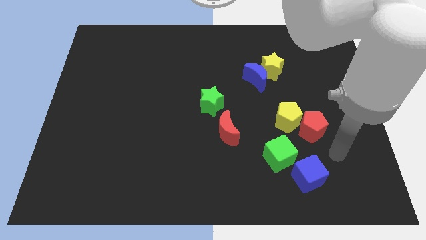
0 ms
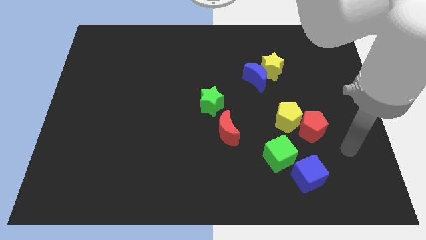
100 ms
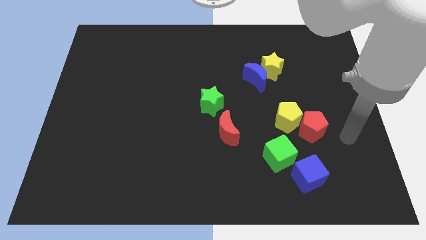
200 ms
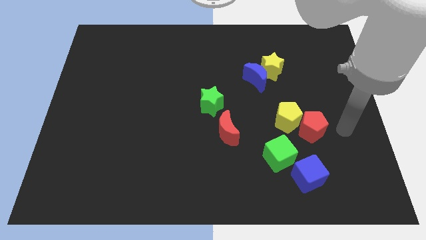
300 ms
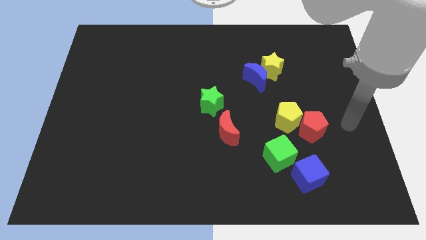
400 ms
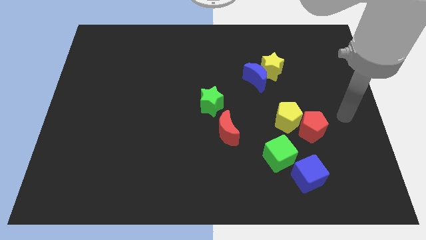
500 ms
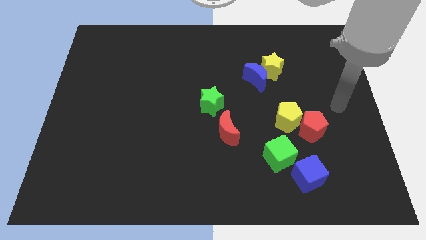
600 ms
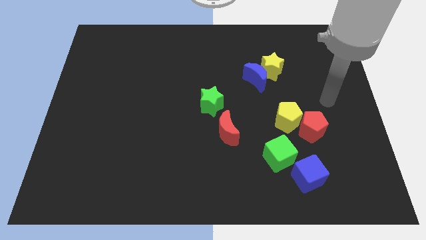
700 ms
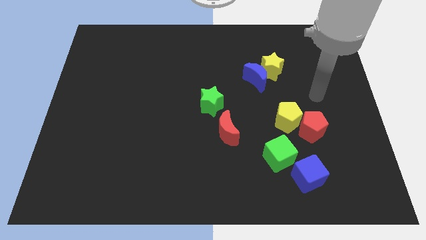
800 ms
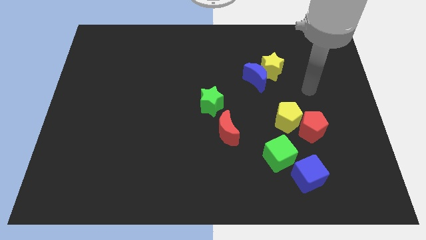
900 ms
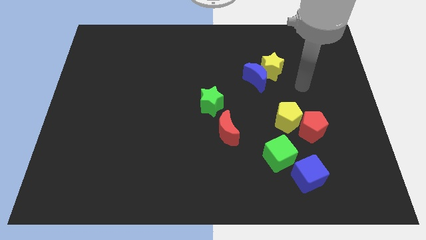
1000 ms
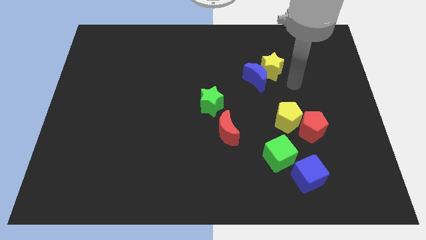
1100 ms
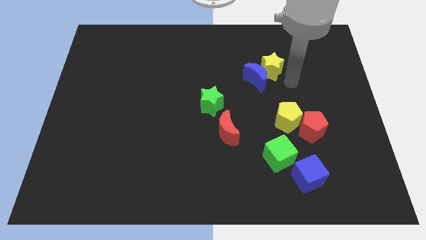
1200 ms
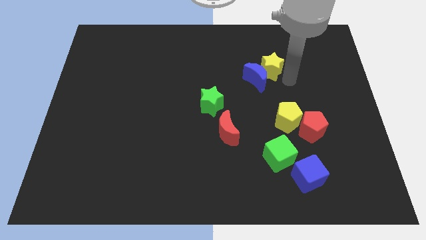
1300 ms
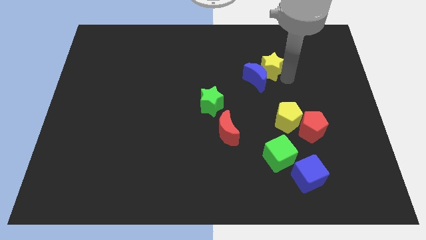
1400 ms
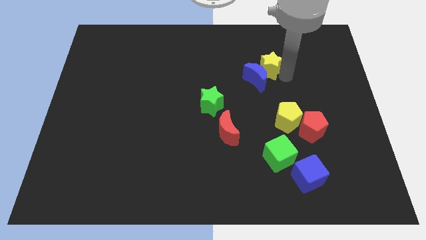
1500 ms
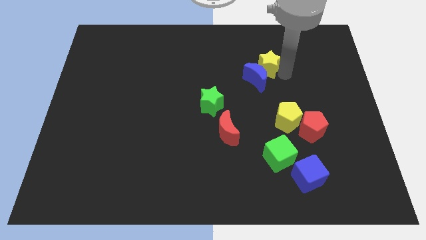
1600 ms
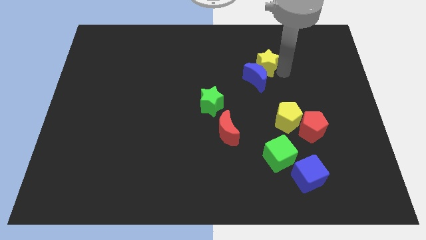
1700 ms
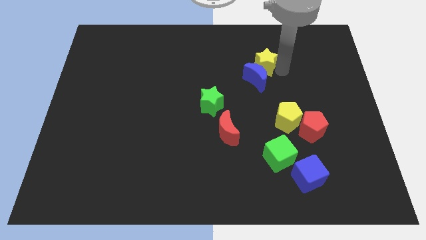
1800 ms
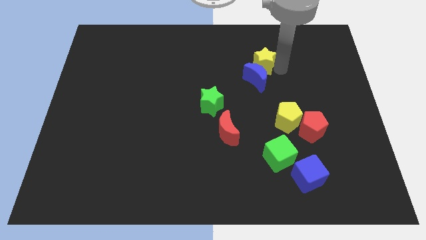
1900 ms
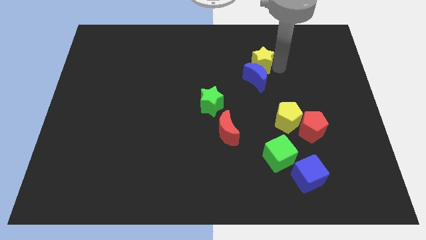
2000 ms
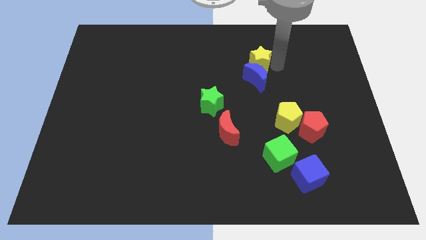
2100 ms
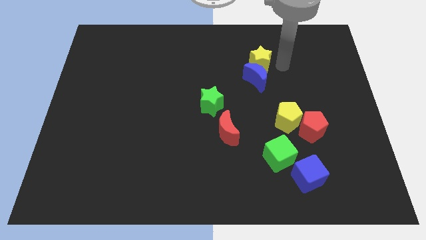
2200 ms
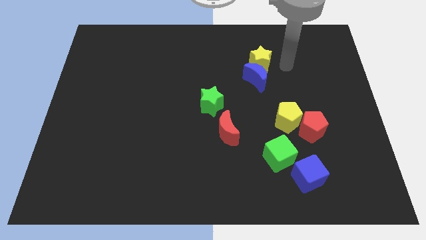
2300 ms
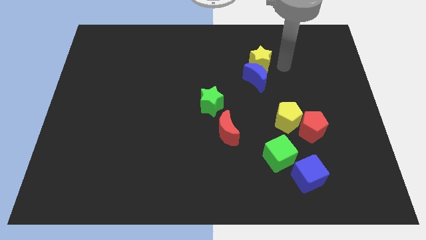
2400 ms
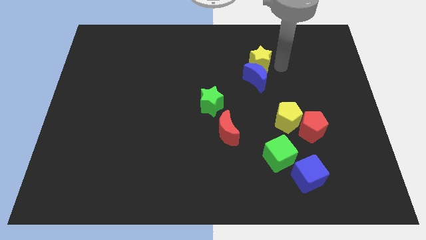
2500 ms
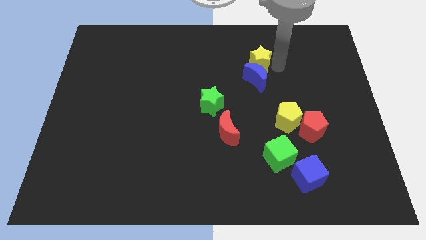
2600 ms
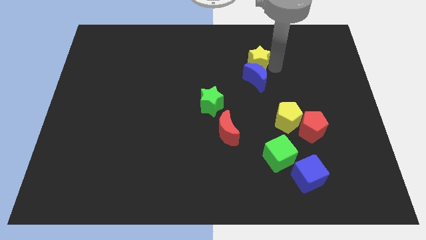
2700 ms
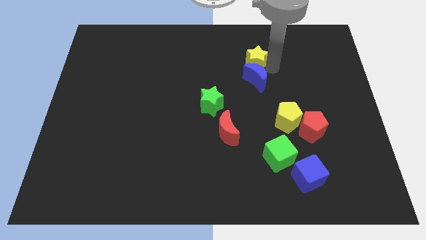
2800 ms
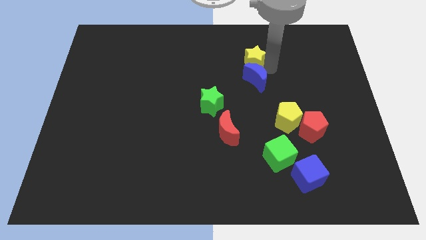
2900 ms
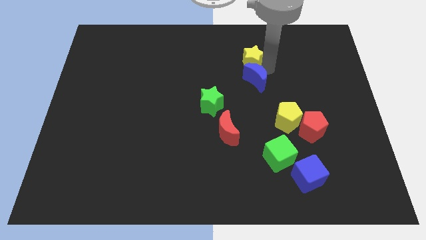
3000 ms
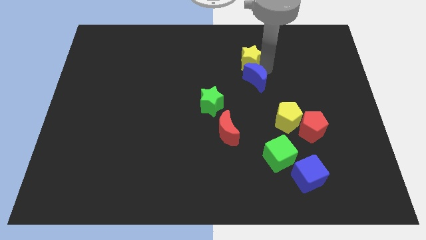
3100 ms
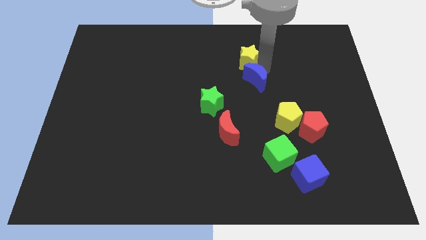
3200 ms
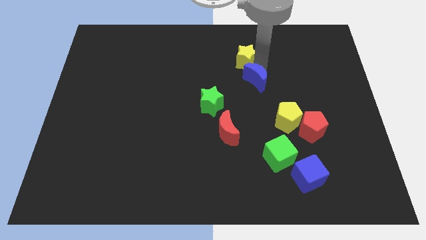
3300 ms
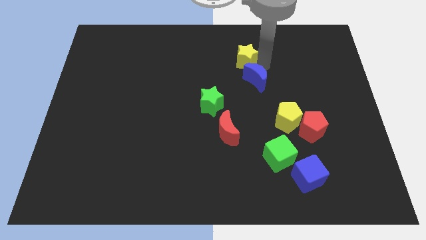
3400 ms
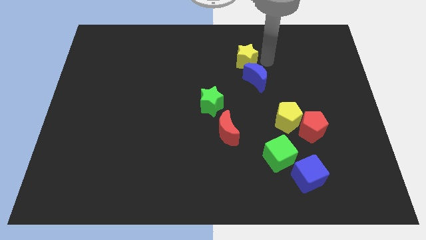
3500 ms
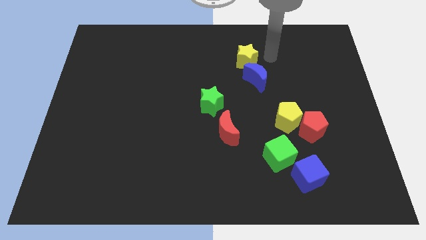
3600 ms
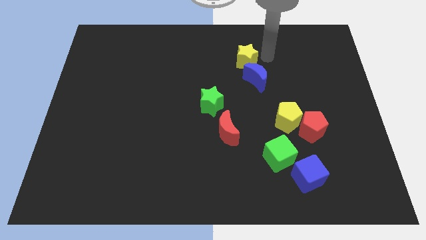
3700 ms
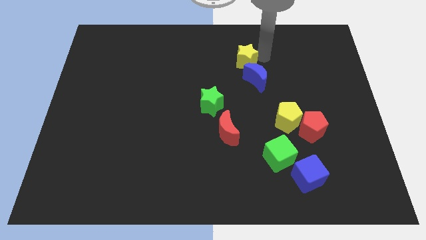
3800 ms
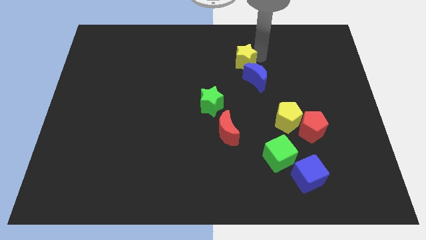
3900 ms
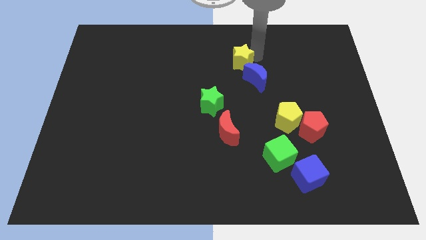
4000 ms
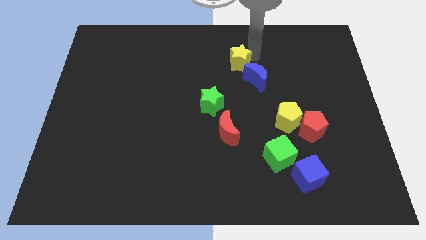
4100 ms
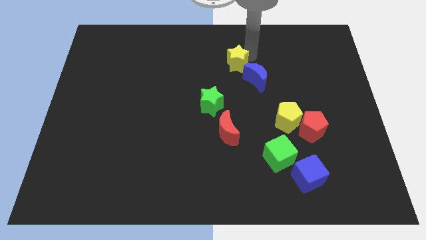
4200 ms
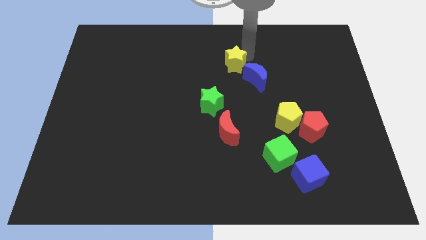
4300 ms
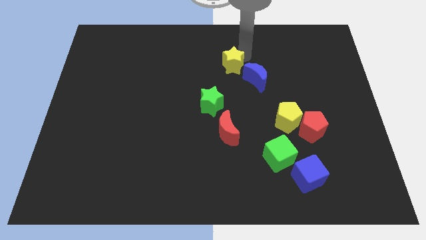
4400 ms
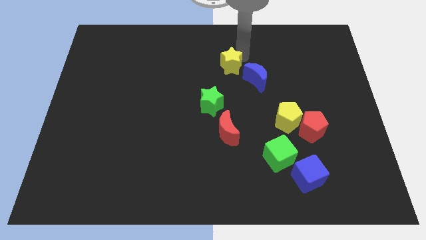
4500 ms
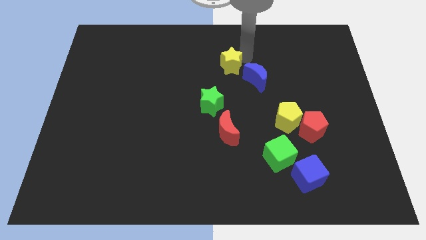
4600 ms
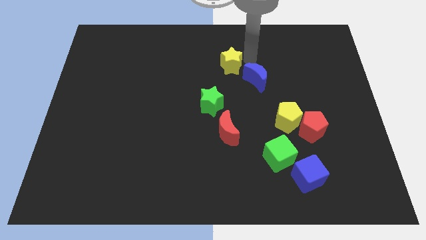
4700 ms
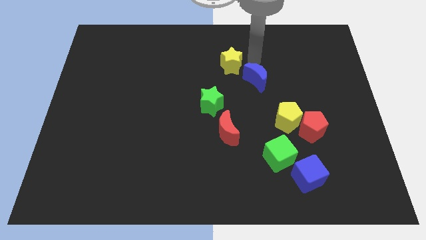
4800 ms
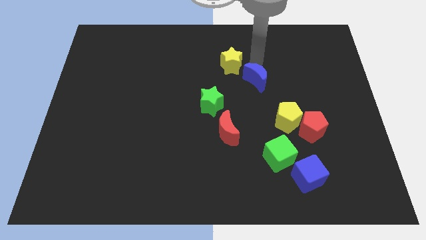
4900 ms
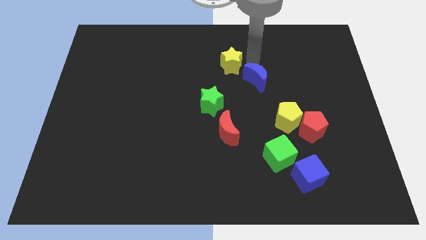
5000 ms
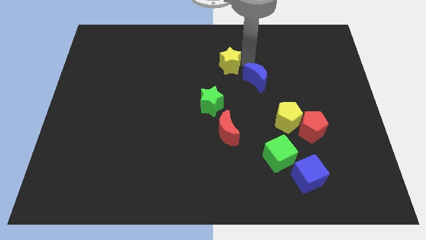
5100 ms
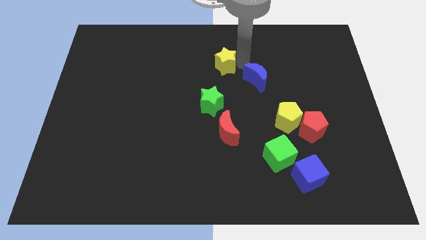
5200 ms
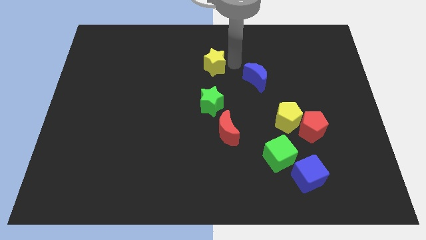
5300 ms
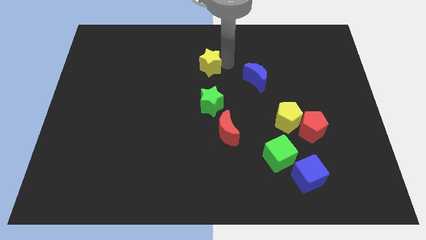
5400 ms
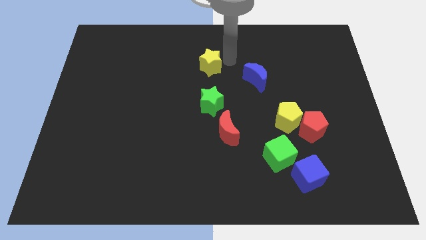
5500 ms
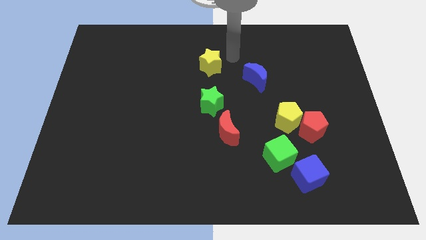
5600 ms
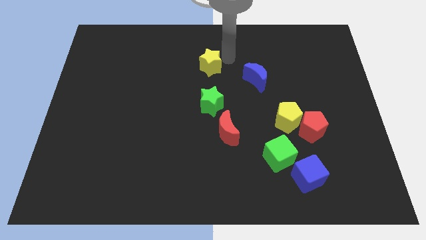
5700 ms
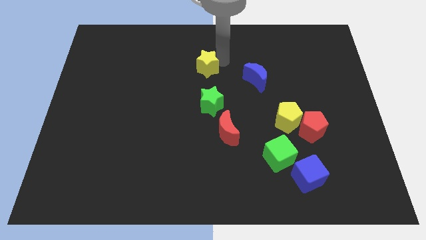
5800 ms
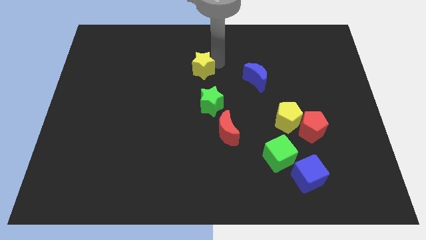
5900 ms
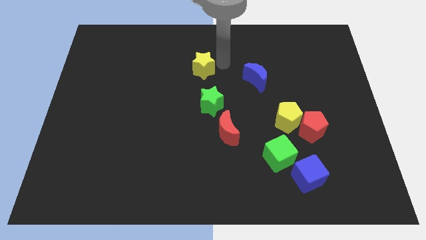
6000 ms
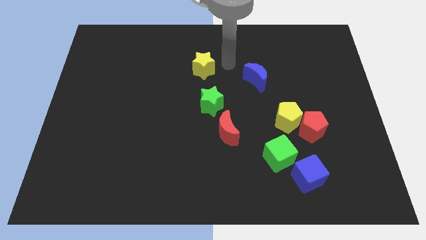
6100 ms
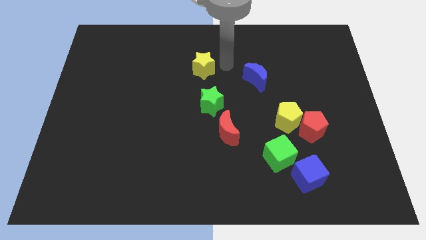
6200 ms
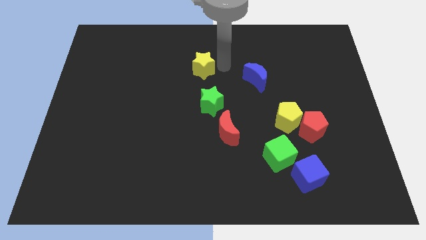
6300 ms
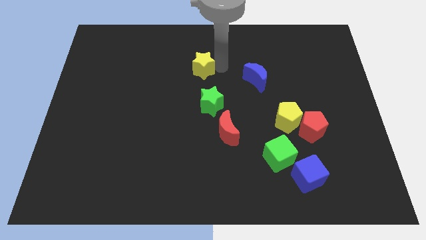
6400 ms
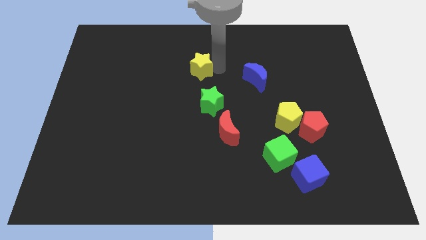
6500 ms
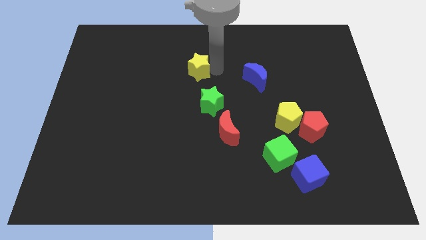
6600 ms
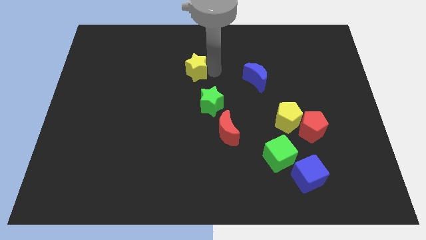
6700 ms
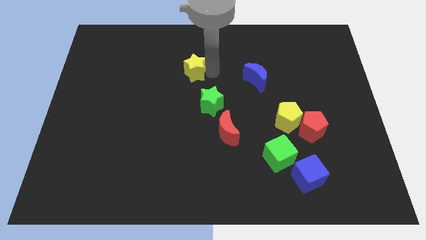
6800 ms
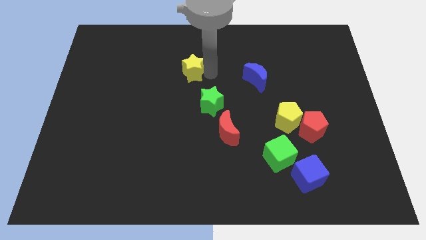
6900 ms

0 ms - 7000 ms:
push the yellow star to the left

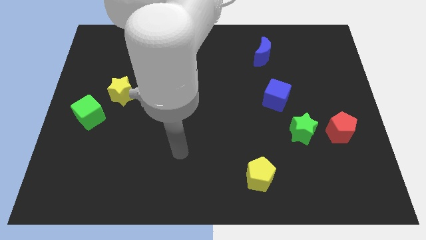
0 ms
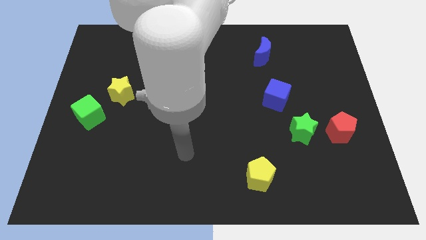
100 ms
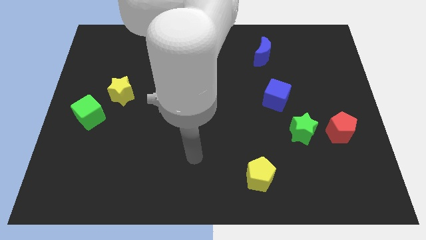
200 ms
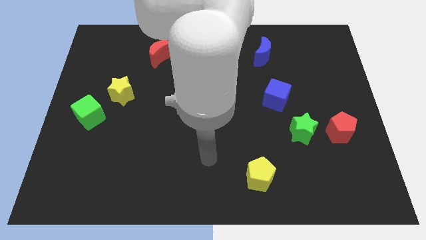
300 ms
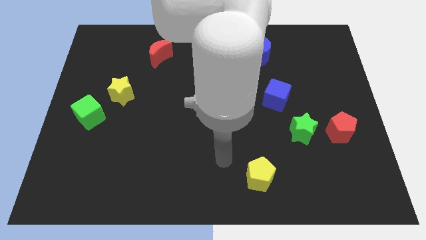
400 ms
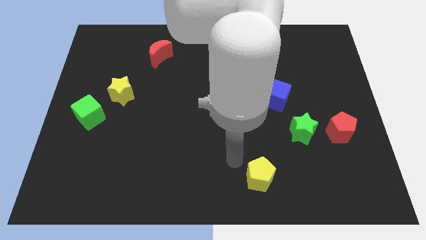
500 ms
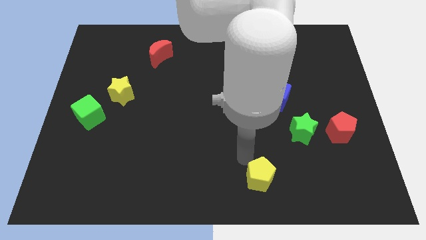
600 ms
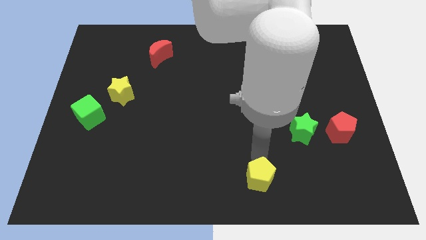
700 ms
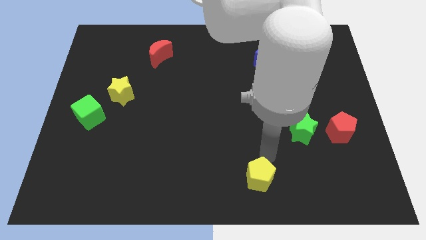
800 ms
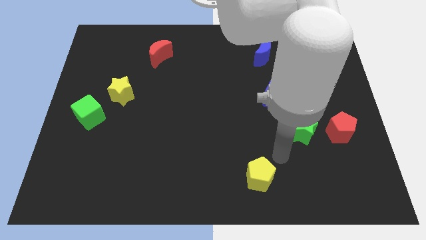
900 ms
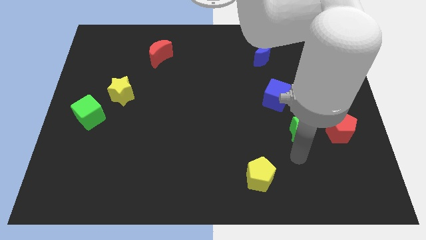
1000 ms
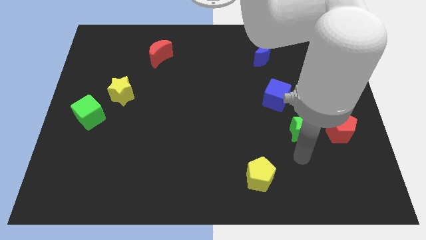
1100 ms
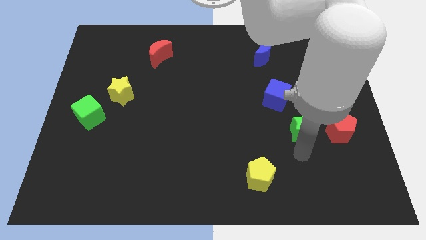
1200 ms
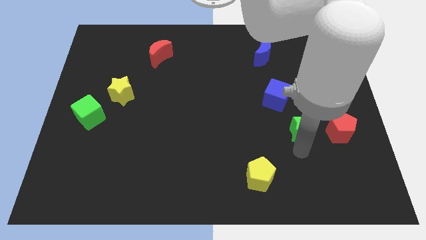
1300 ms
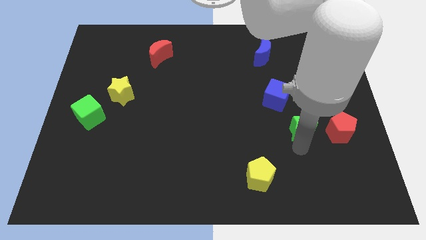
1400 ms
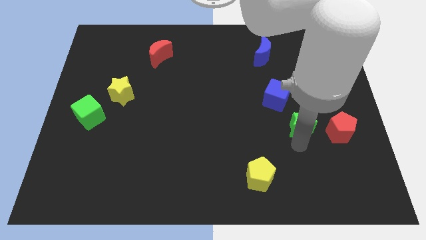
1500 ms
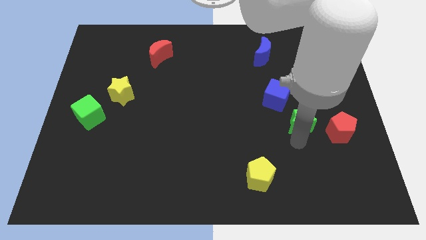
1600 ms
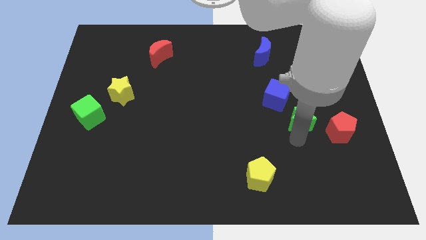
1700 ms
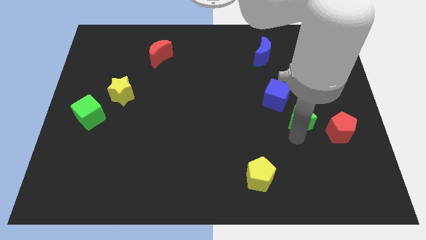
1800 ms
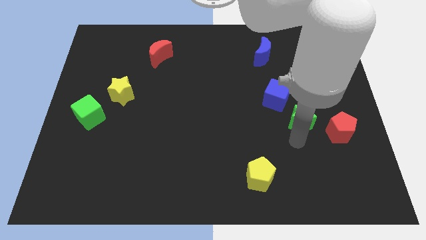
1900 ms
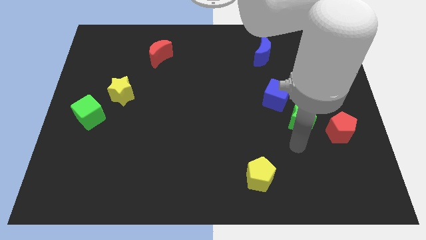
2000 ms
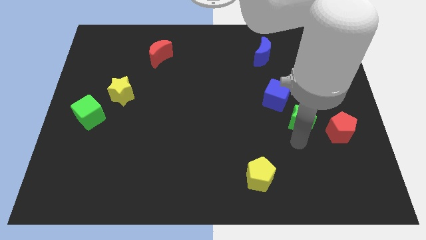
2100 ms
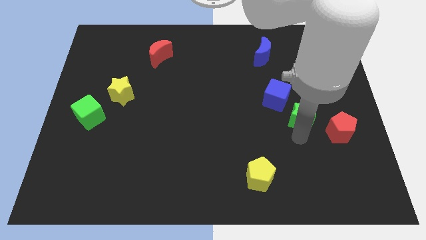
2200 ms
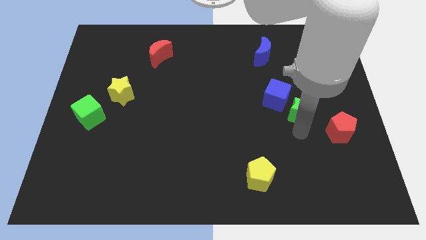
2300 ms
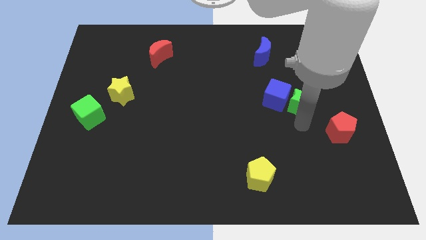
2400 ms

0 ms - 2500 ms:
slightly move the green star upwards
